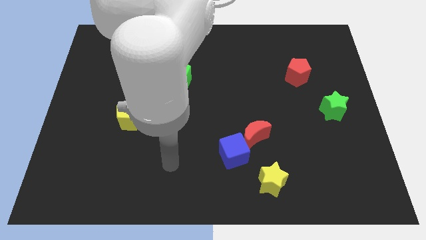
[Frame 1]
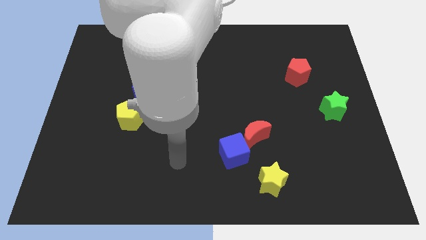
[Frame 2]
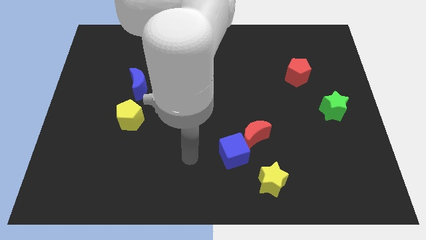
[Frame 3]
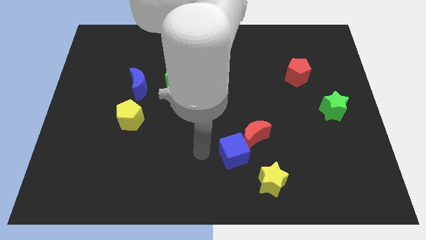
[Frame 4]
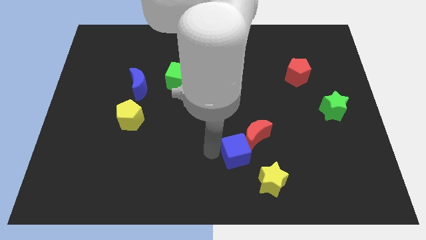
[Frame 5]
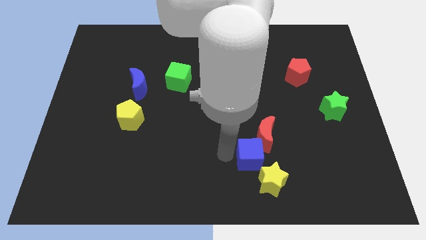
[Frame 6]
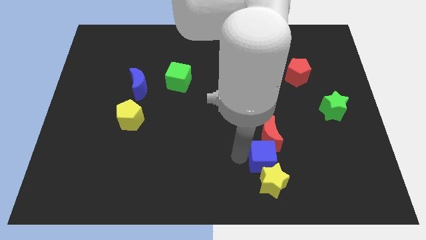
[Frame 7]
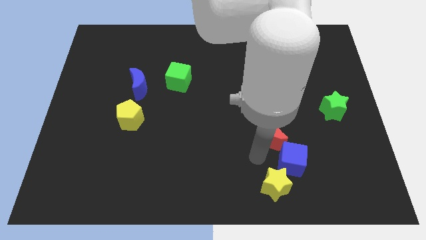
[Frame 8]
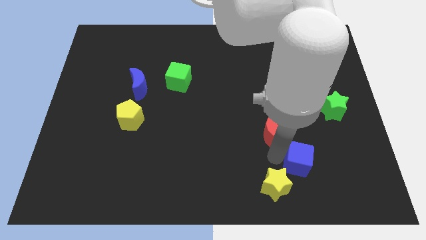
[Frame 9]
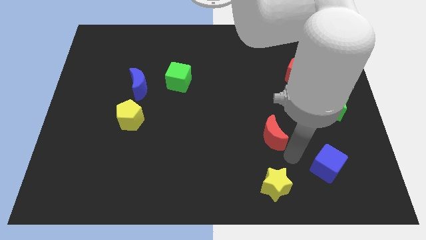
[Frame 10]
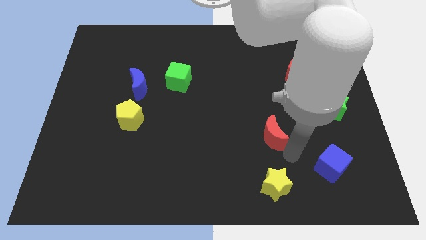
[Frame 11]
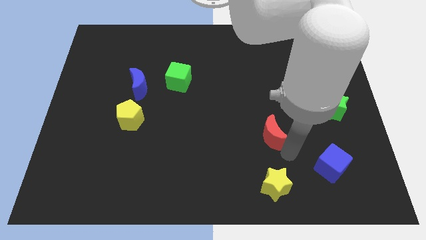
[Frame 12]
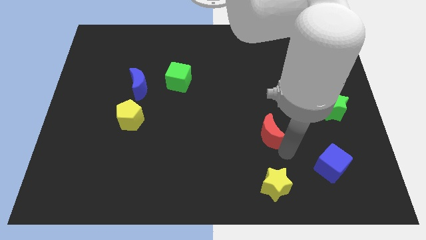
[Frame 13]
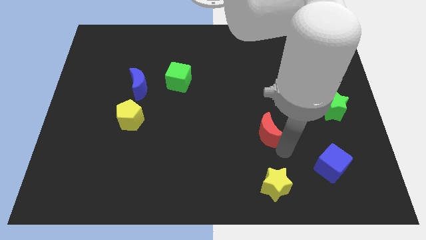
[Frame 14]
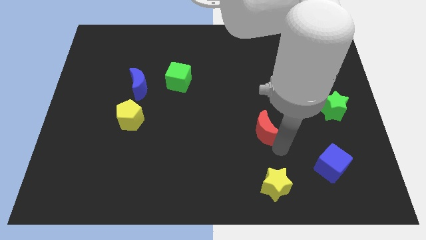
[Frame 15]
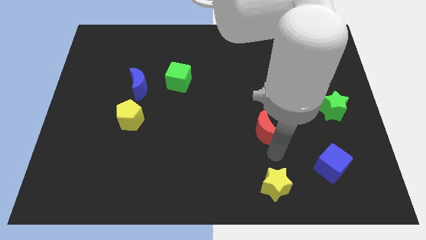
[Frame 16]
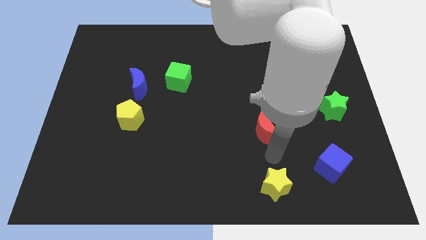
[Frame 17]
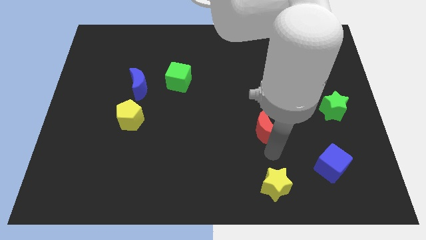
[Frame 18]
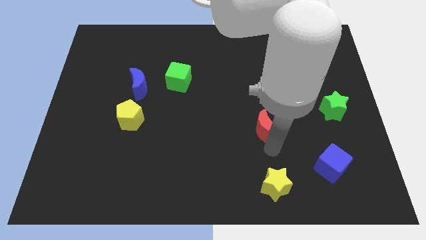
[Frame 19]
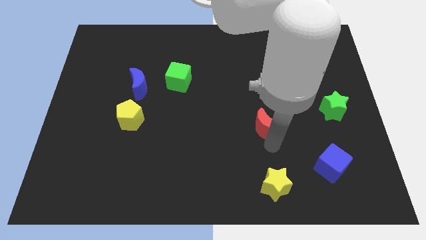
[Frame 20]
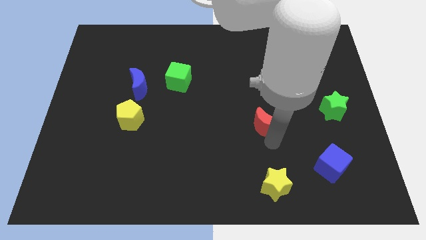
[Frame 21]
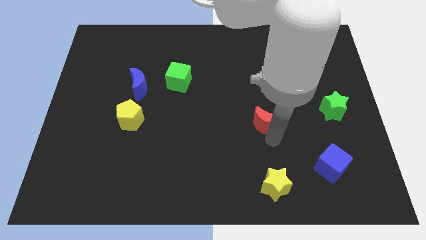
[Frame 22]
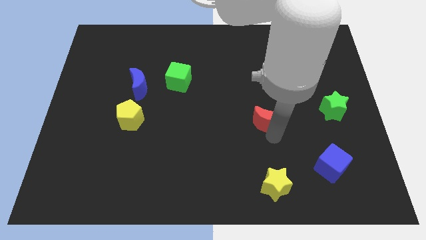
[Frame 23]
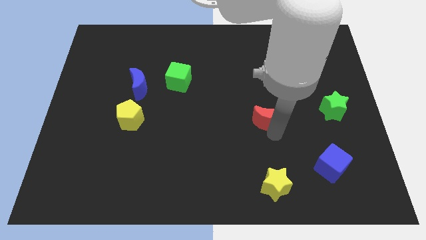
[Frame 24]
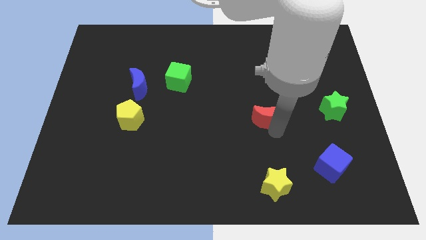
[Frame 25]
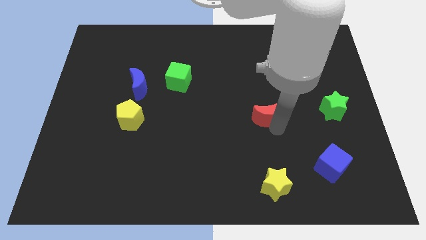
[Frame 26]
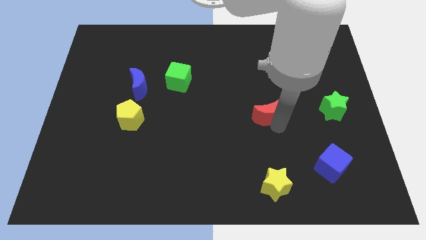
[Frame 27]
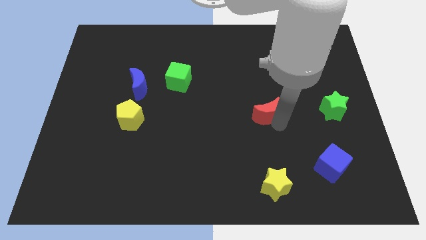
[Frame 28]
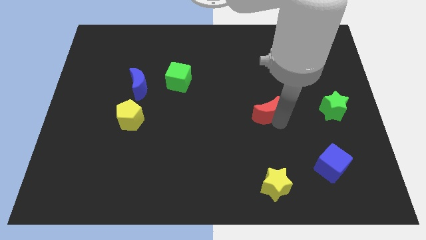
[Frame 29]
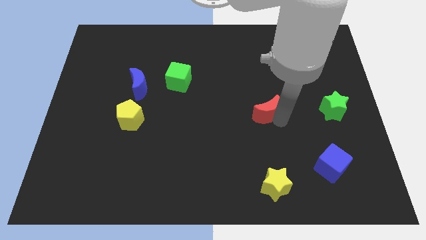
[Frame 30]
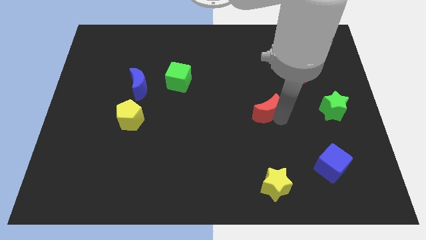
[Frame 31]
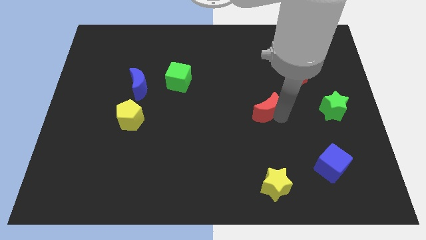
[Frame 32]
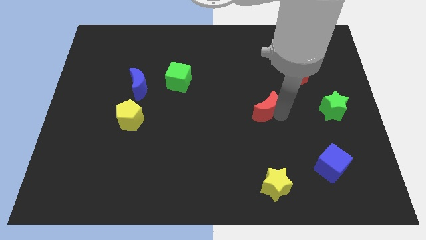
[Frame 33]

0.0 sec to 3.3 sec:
slide the red moon upwards a little bit

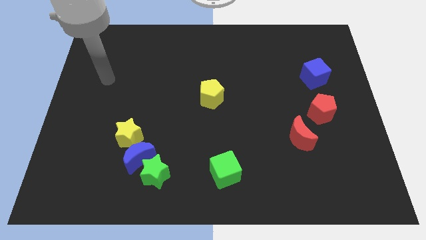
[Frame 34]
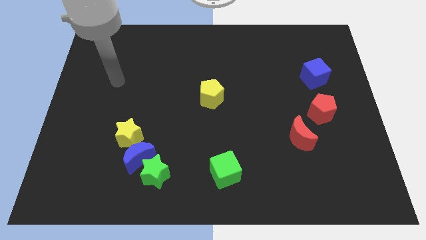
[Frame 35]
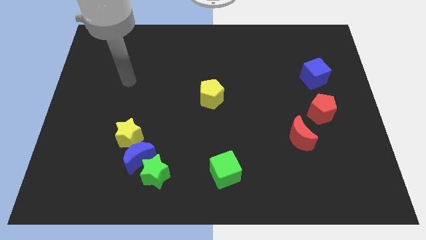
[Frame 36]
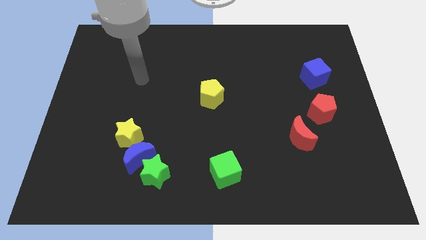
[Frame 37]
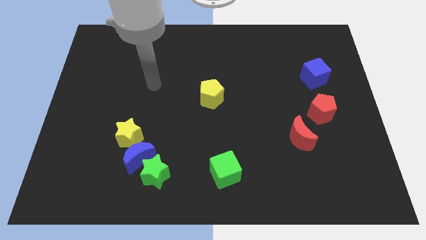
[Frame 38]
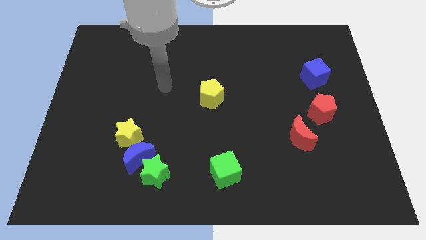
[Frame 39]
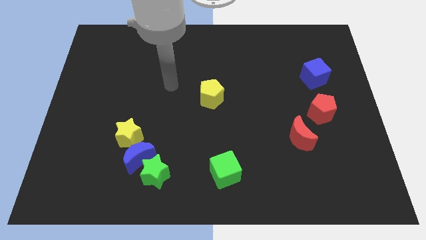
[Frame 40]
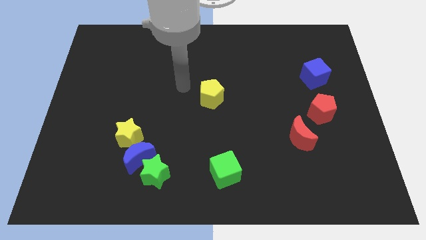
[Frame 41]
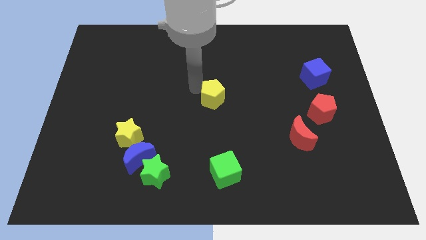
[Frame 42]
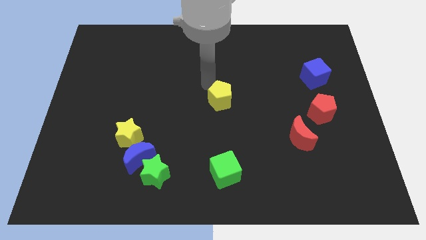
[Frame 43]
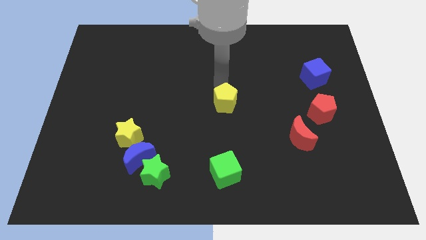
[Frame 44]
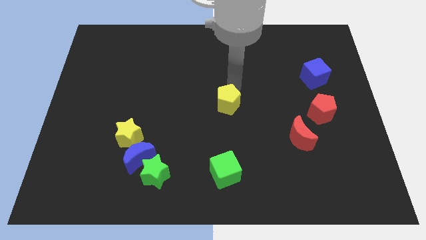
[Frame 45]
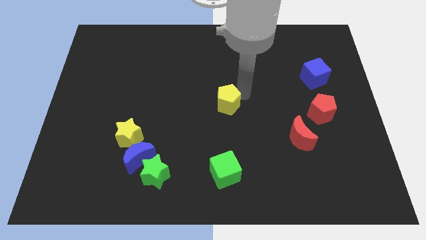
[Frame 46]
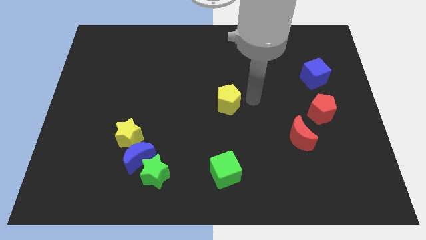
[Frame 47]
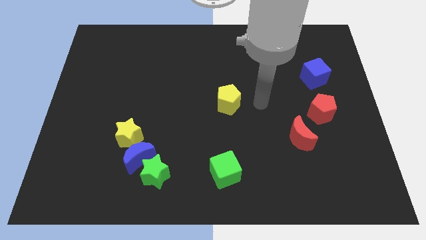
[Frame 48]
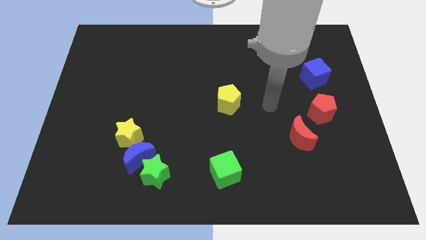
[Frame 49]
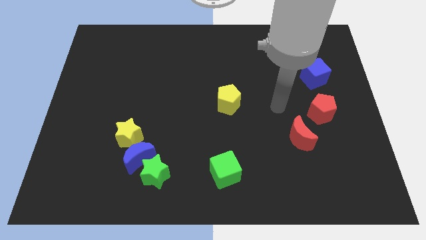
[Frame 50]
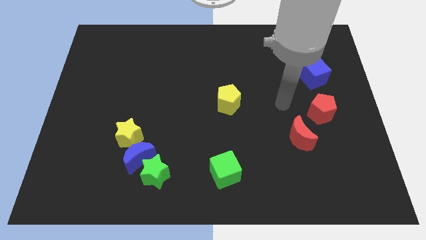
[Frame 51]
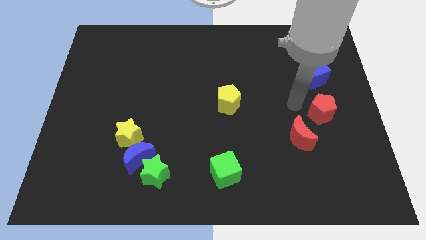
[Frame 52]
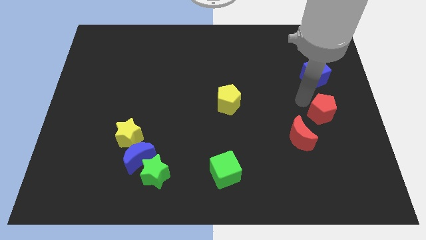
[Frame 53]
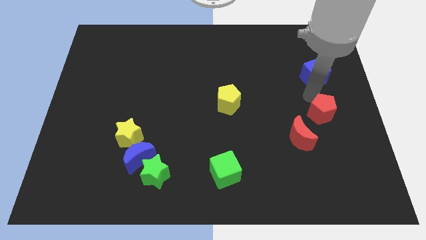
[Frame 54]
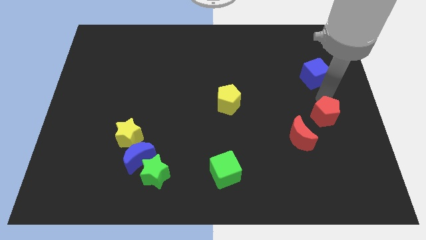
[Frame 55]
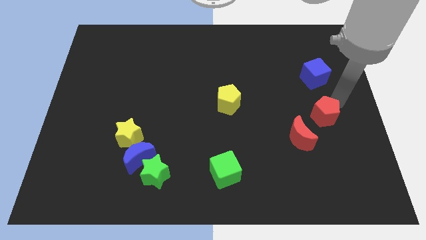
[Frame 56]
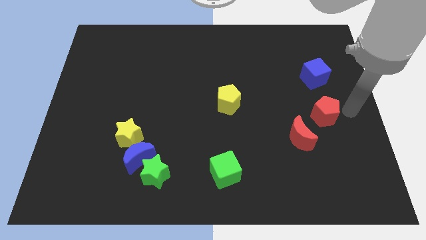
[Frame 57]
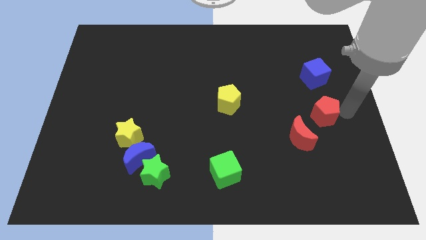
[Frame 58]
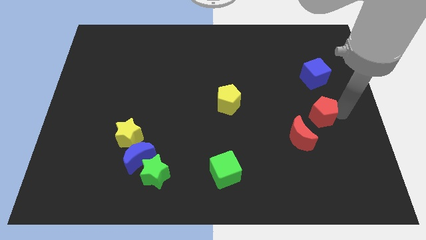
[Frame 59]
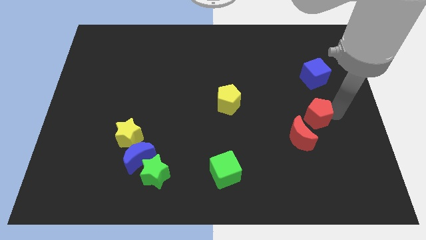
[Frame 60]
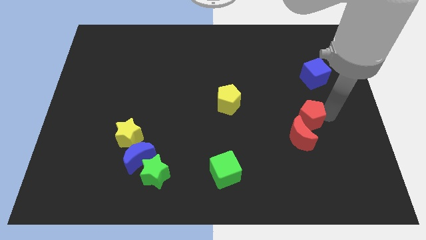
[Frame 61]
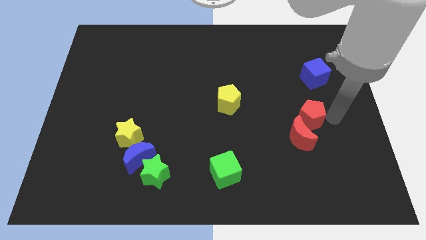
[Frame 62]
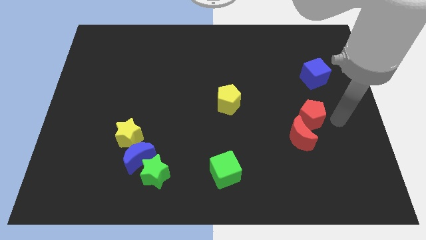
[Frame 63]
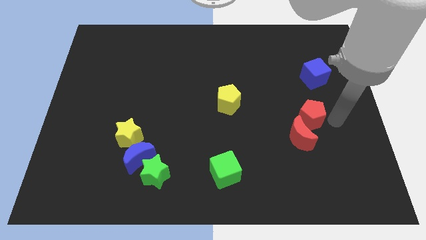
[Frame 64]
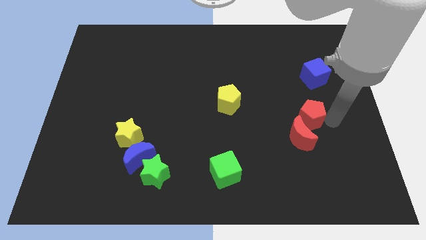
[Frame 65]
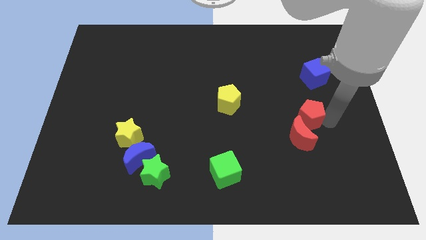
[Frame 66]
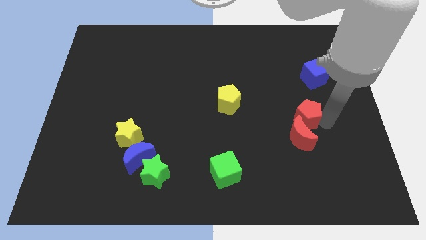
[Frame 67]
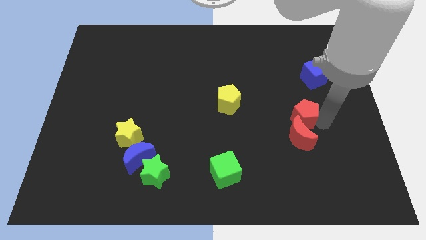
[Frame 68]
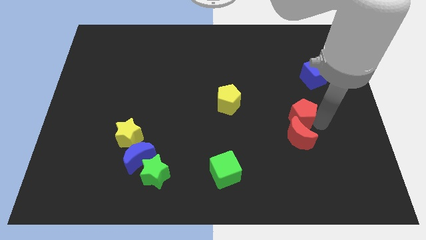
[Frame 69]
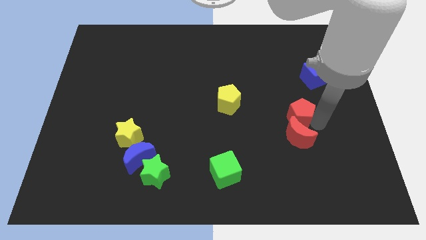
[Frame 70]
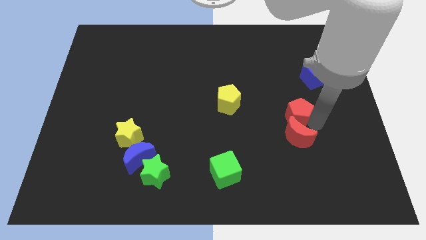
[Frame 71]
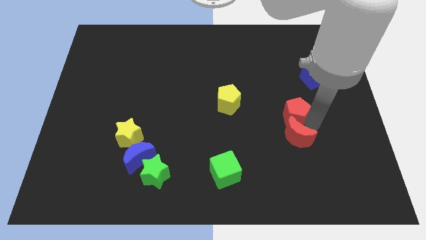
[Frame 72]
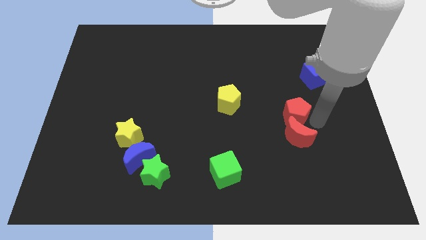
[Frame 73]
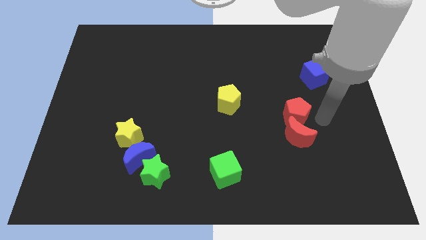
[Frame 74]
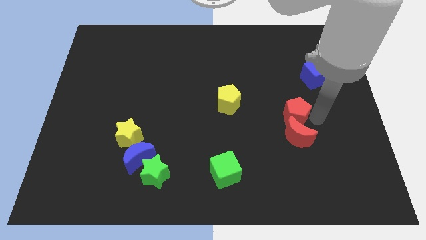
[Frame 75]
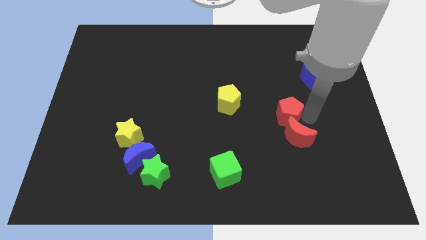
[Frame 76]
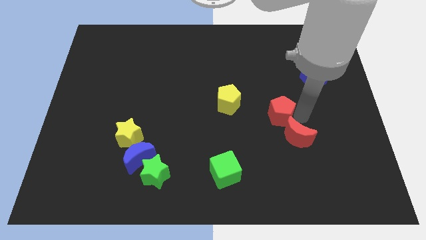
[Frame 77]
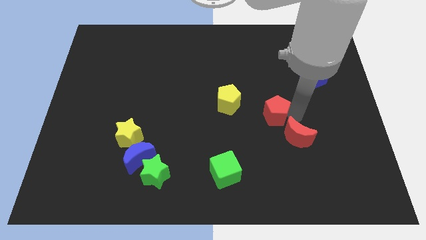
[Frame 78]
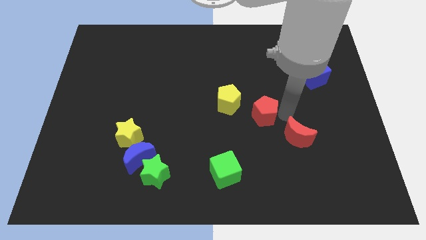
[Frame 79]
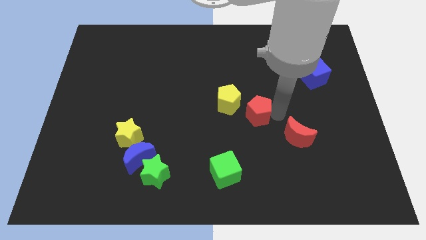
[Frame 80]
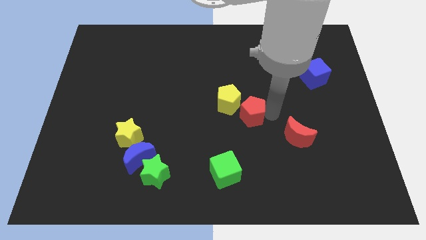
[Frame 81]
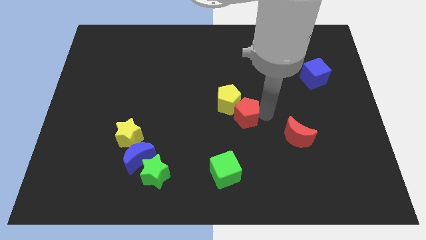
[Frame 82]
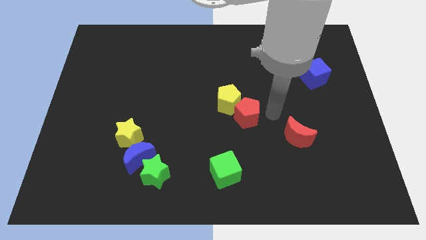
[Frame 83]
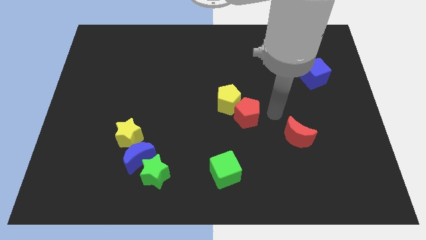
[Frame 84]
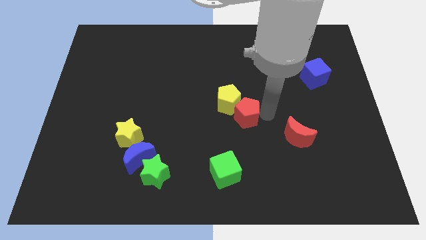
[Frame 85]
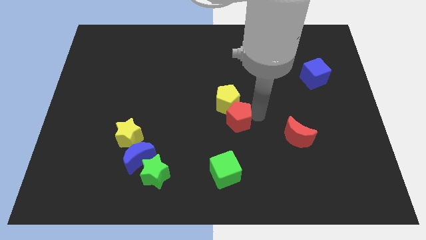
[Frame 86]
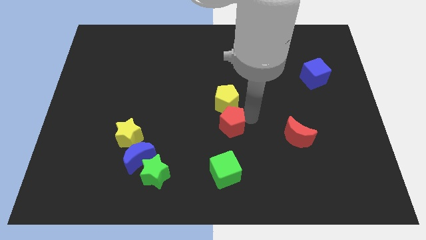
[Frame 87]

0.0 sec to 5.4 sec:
move the red pentagon to the left

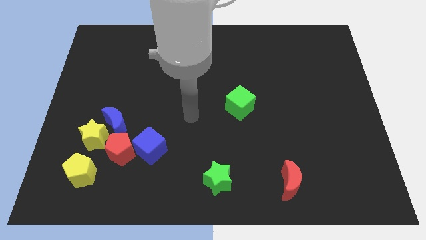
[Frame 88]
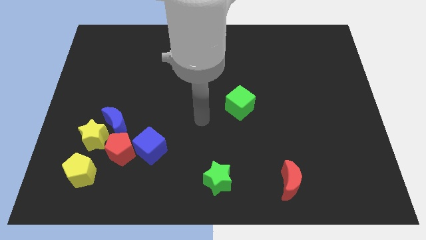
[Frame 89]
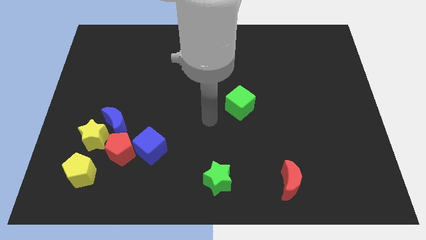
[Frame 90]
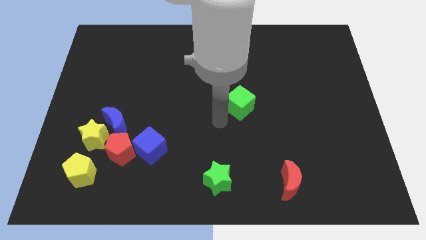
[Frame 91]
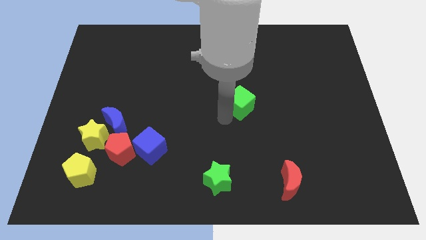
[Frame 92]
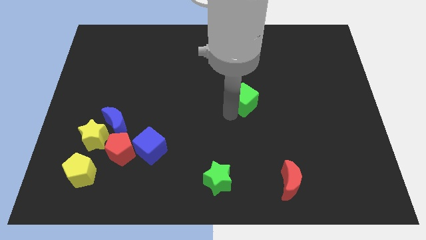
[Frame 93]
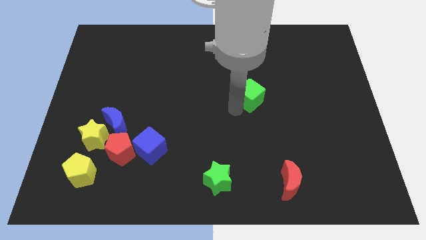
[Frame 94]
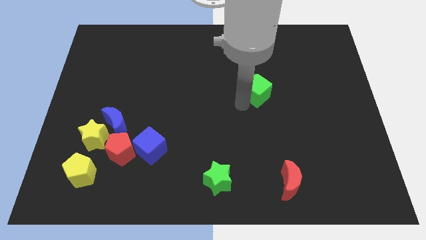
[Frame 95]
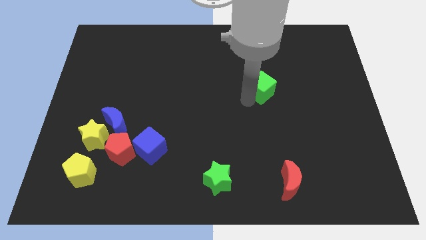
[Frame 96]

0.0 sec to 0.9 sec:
slide the green cube a bit upwards and to the right
